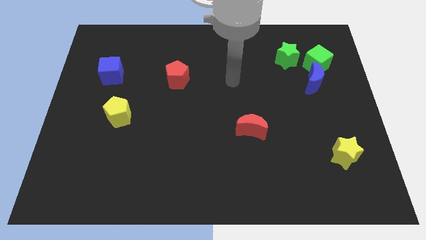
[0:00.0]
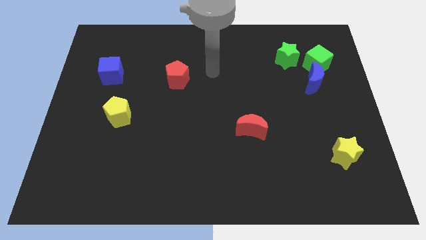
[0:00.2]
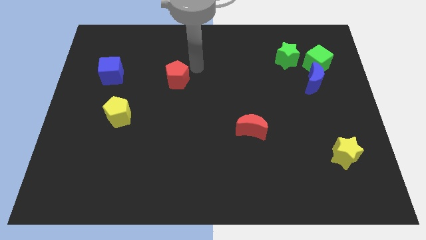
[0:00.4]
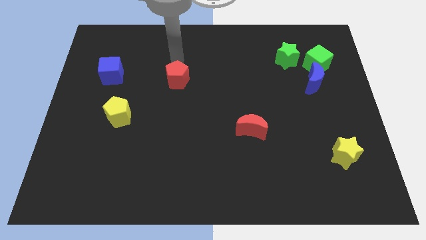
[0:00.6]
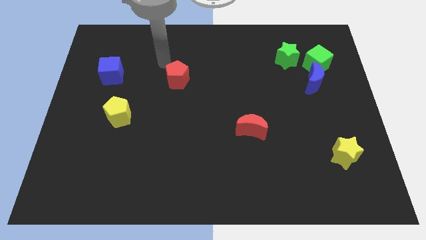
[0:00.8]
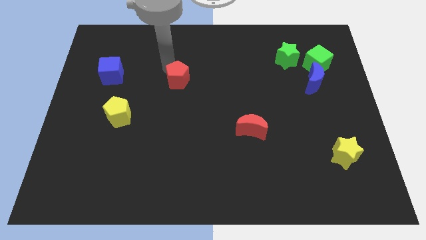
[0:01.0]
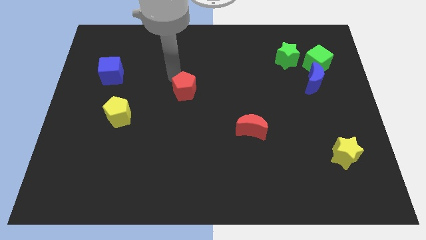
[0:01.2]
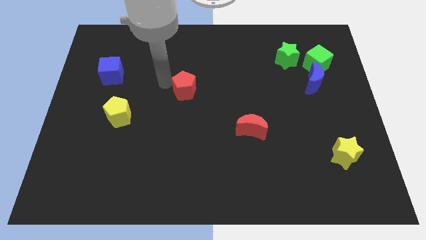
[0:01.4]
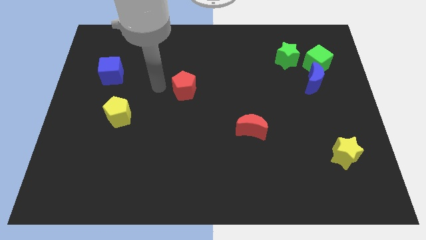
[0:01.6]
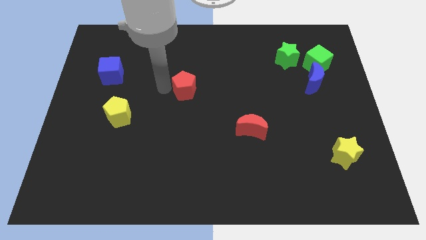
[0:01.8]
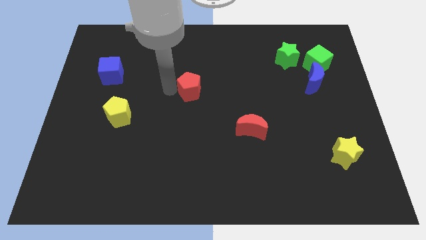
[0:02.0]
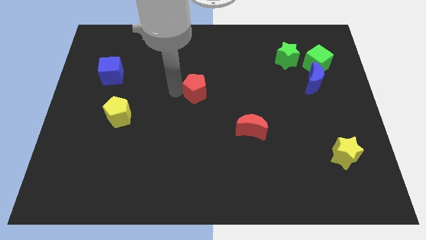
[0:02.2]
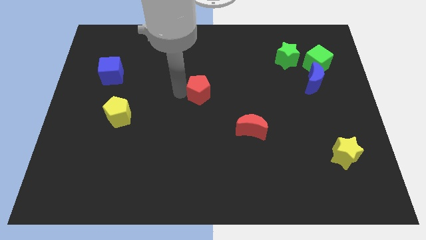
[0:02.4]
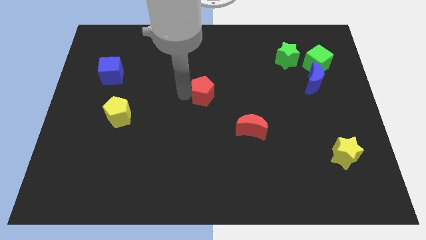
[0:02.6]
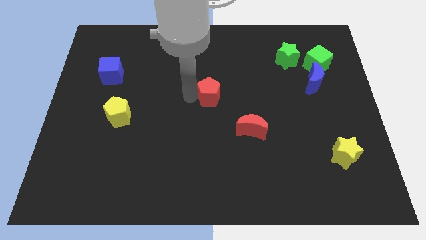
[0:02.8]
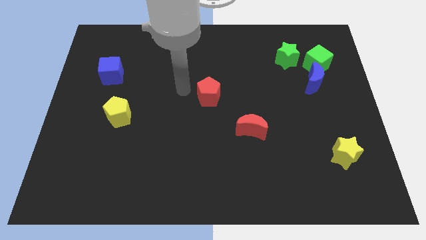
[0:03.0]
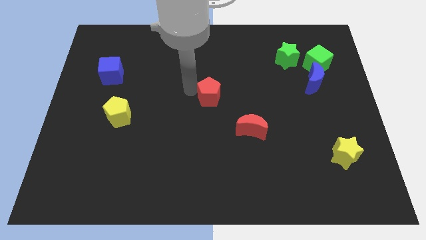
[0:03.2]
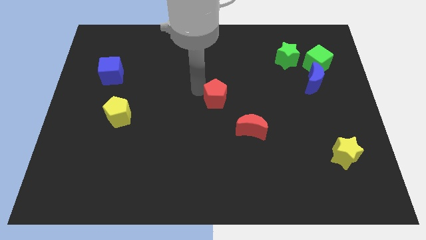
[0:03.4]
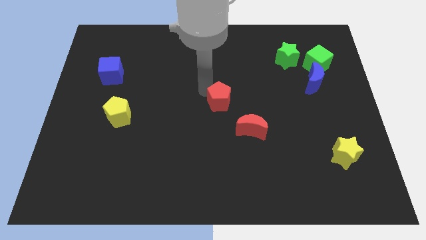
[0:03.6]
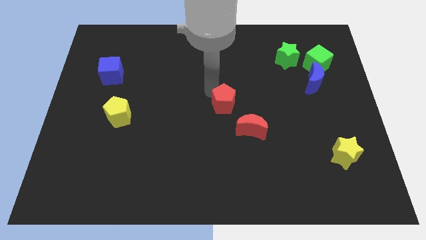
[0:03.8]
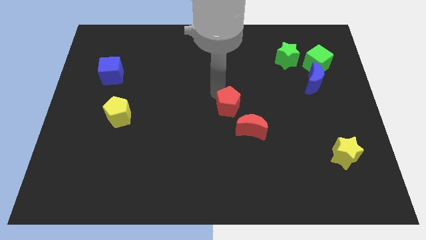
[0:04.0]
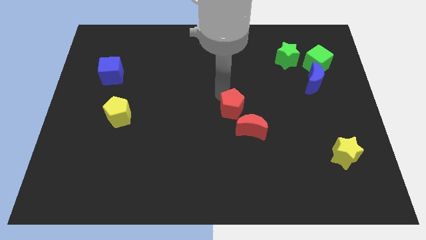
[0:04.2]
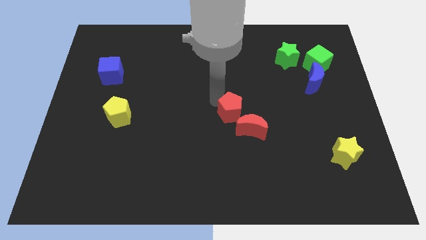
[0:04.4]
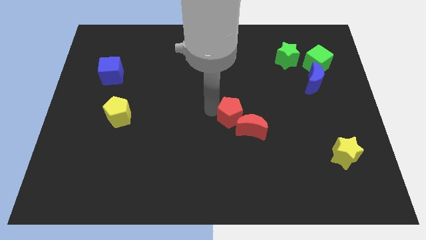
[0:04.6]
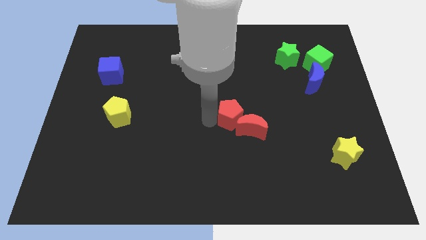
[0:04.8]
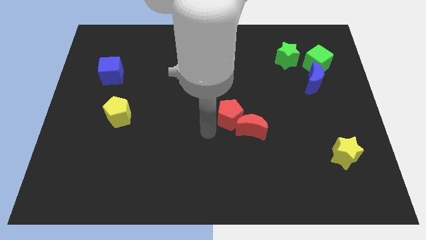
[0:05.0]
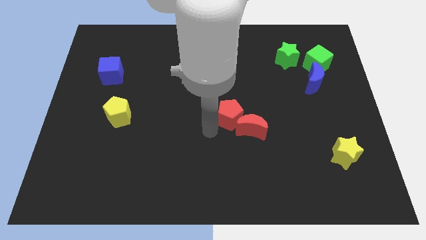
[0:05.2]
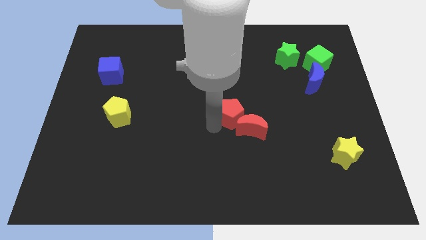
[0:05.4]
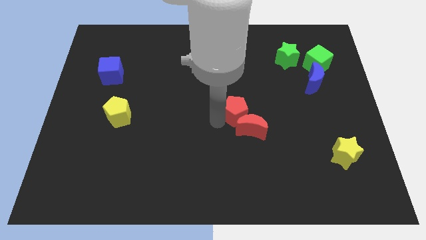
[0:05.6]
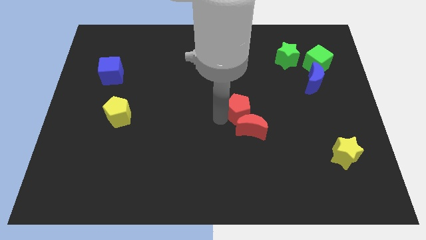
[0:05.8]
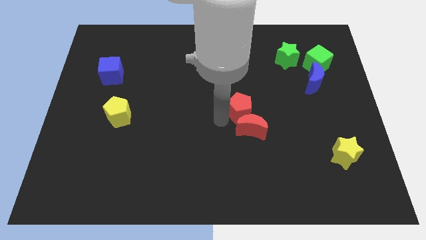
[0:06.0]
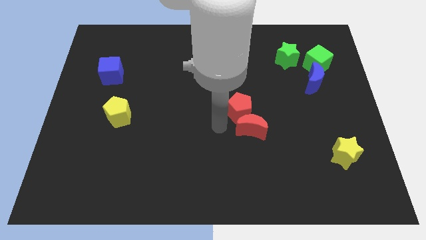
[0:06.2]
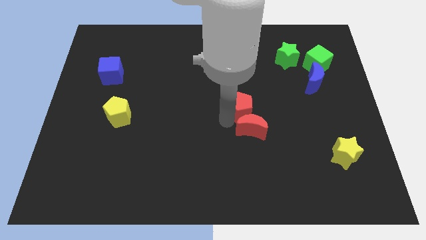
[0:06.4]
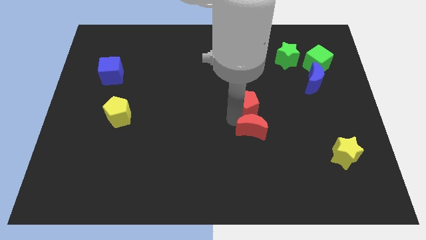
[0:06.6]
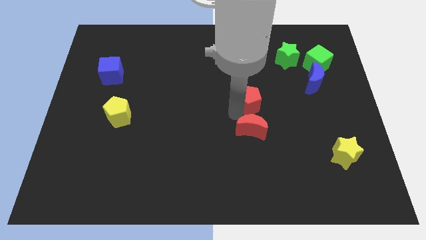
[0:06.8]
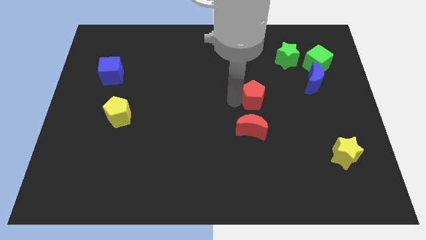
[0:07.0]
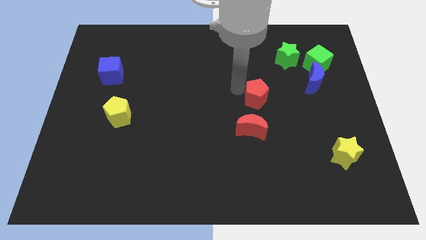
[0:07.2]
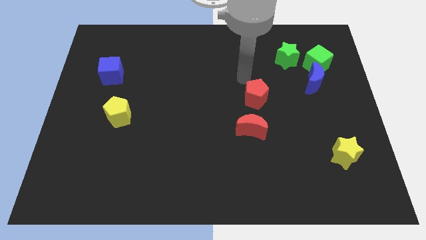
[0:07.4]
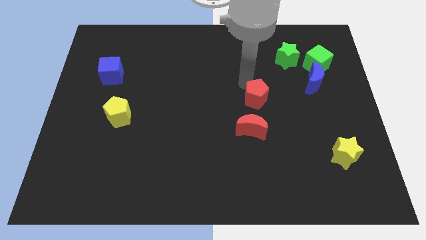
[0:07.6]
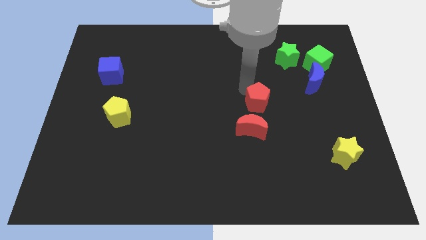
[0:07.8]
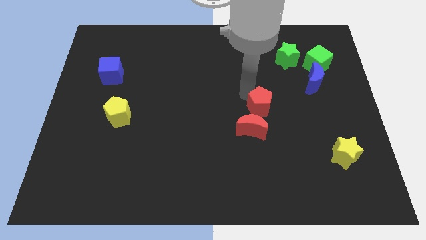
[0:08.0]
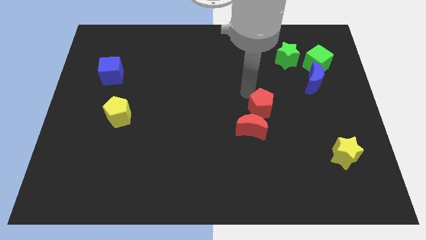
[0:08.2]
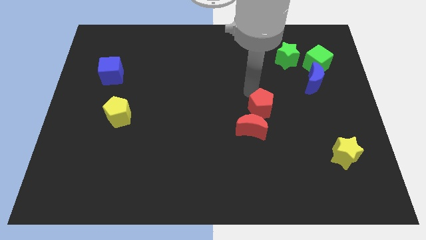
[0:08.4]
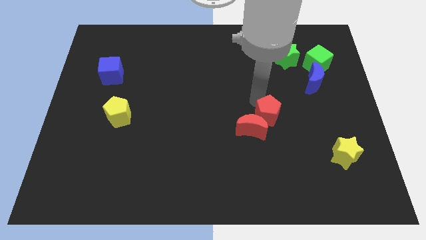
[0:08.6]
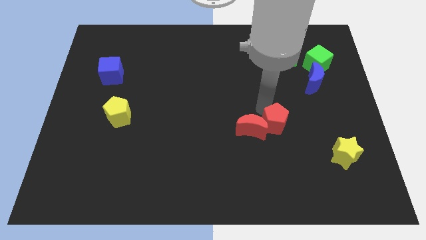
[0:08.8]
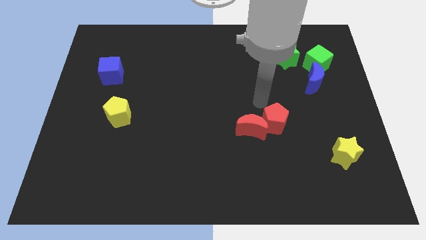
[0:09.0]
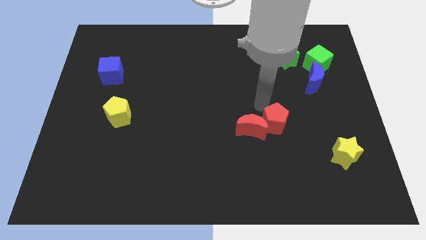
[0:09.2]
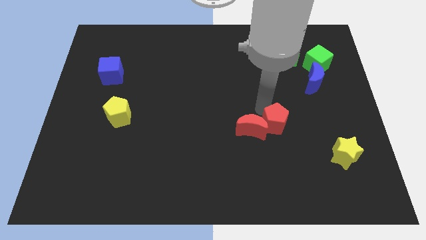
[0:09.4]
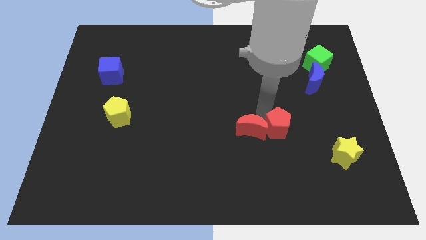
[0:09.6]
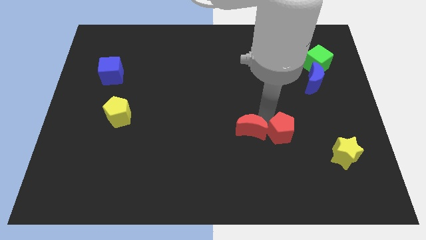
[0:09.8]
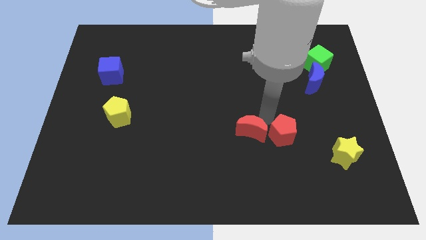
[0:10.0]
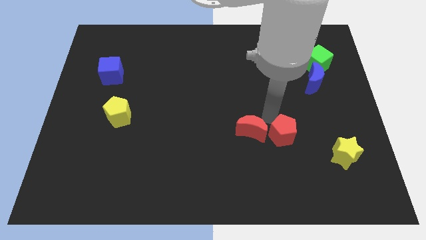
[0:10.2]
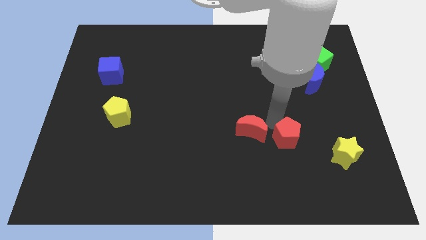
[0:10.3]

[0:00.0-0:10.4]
push the red pentagon left of the yellow star

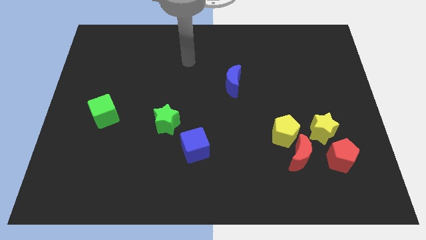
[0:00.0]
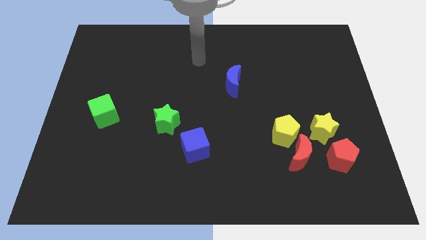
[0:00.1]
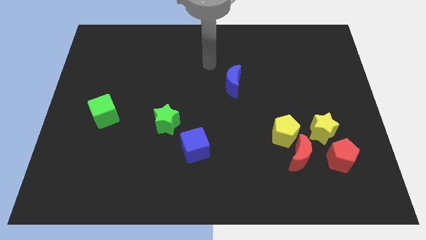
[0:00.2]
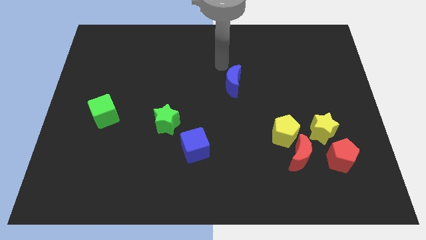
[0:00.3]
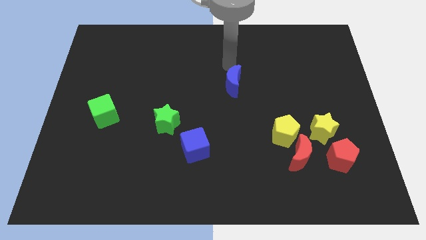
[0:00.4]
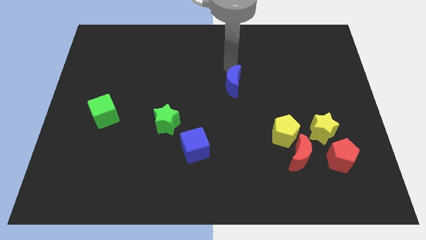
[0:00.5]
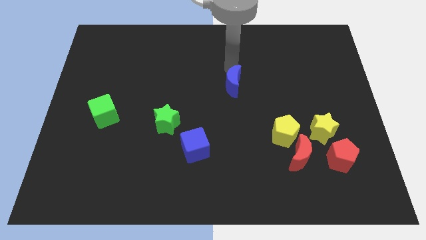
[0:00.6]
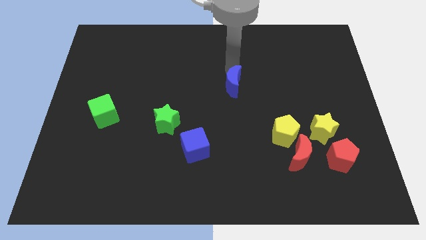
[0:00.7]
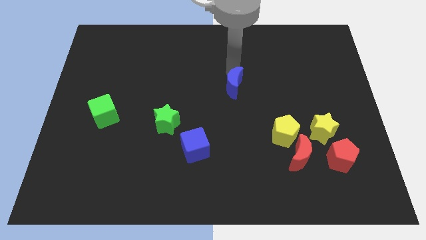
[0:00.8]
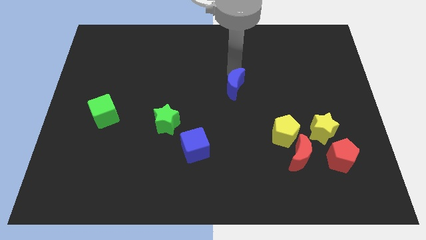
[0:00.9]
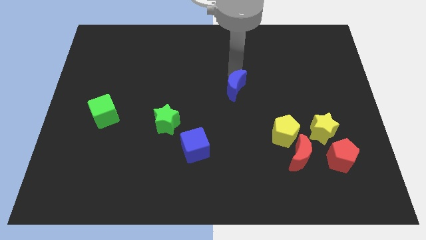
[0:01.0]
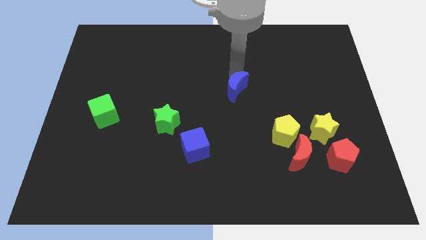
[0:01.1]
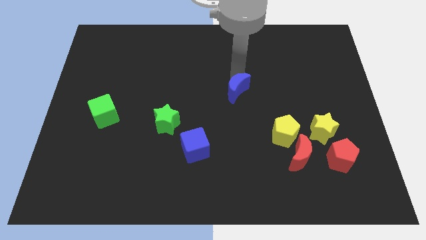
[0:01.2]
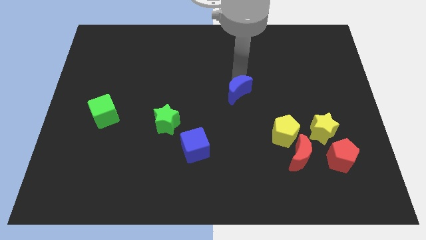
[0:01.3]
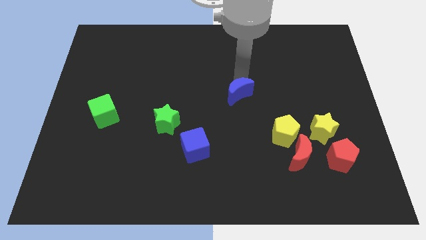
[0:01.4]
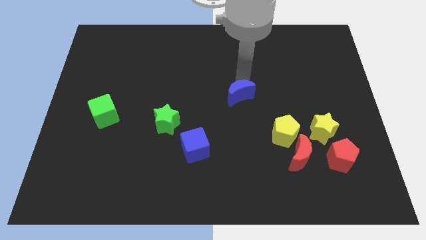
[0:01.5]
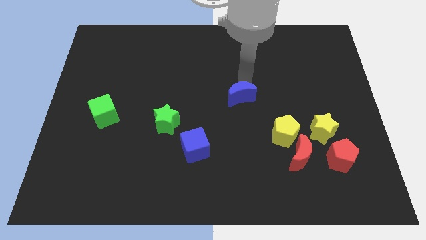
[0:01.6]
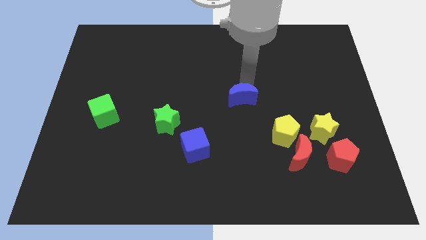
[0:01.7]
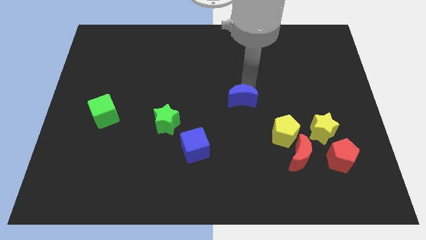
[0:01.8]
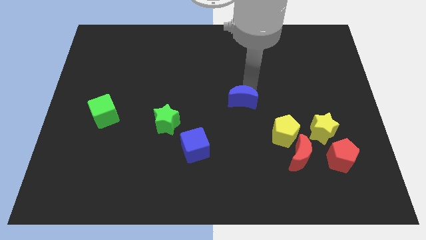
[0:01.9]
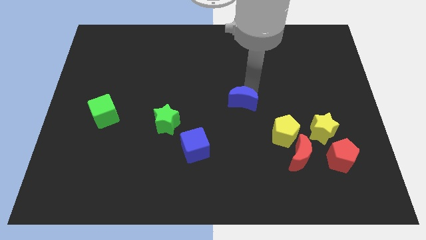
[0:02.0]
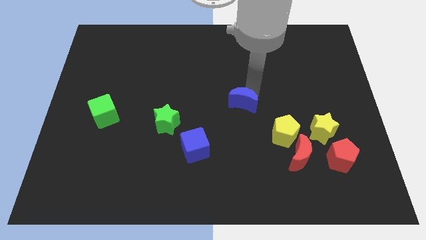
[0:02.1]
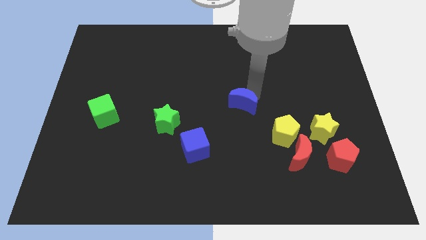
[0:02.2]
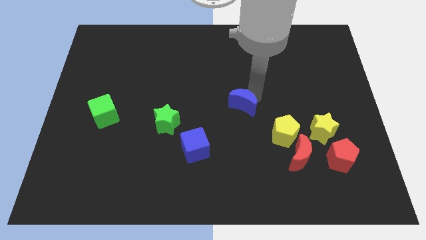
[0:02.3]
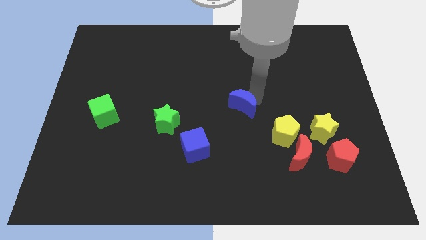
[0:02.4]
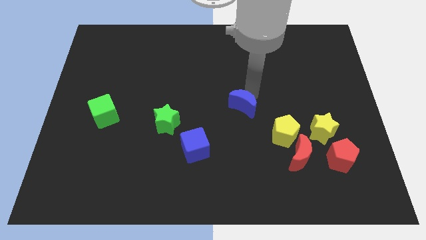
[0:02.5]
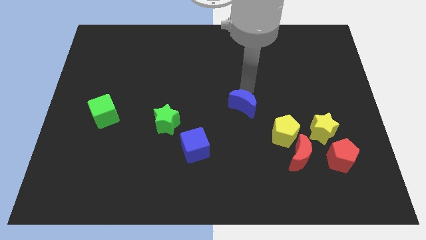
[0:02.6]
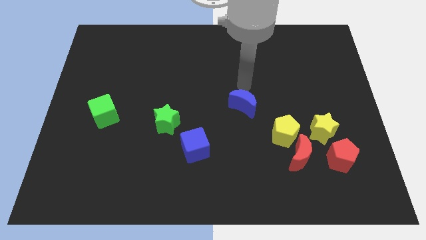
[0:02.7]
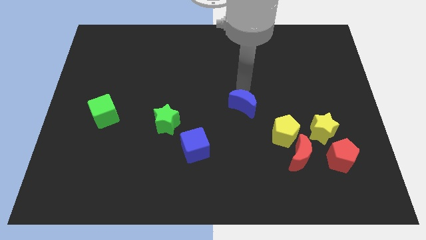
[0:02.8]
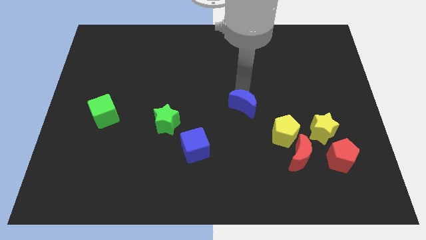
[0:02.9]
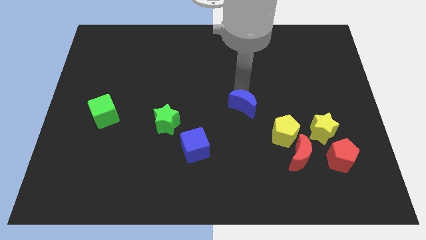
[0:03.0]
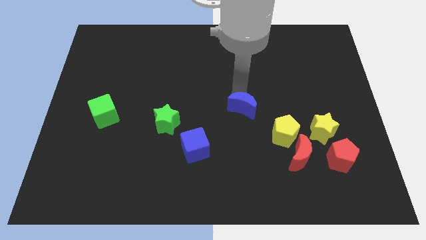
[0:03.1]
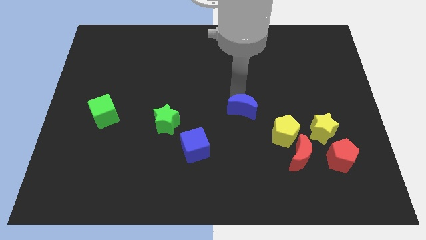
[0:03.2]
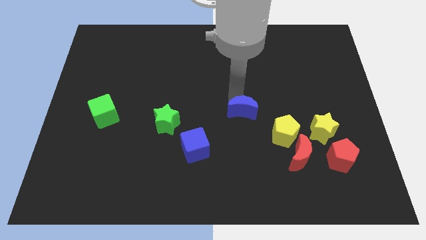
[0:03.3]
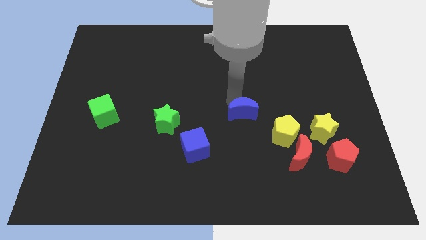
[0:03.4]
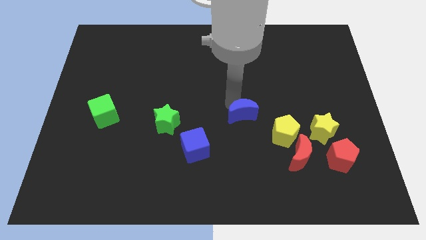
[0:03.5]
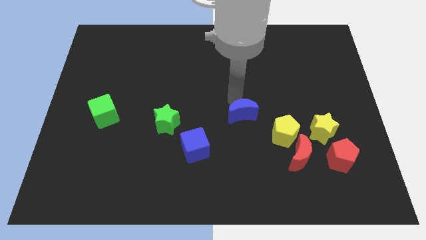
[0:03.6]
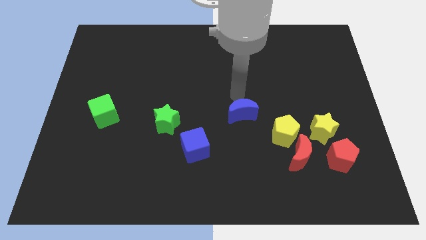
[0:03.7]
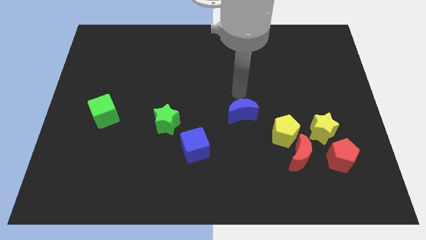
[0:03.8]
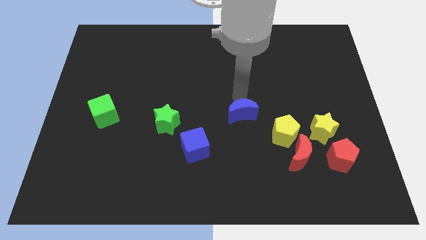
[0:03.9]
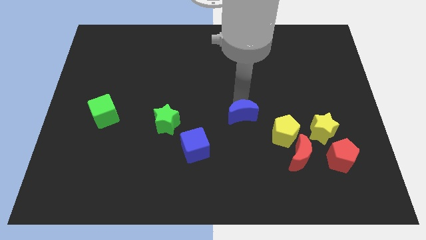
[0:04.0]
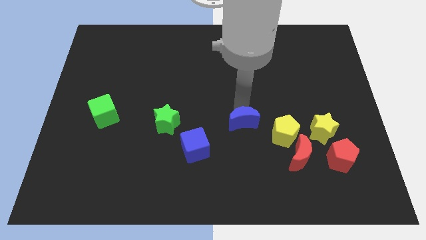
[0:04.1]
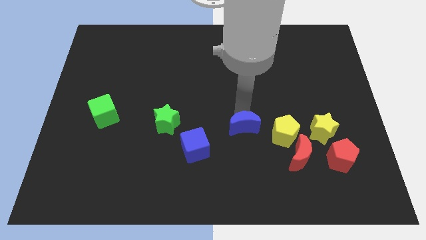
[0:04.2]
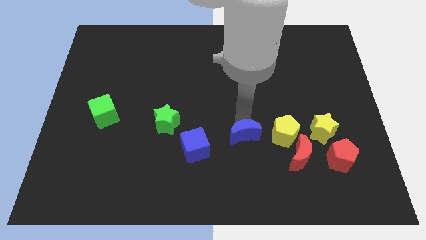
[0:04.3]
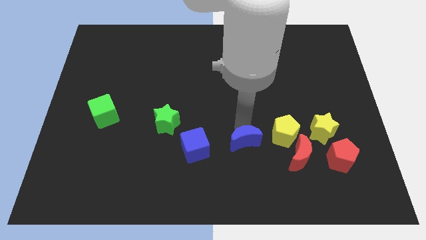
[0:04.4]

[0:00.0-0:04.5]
slide the blue moon just left of the red moon
